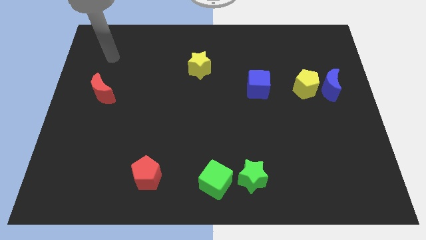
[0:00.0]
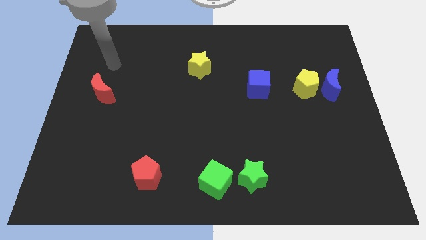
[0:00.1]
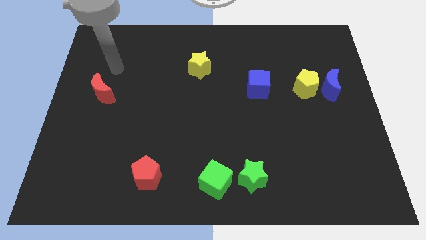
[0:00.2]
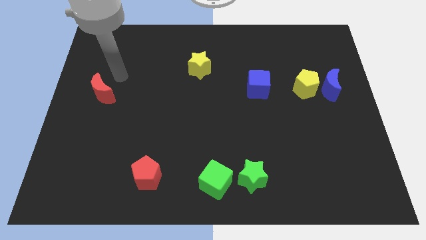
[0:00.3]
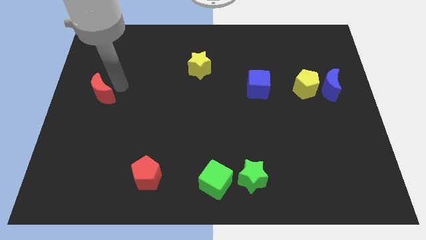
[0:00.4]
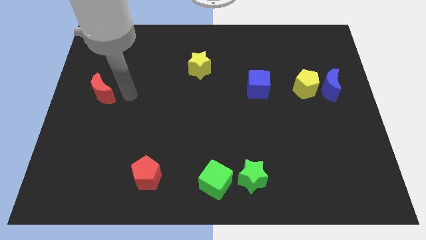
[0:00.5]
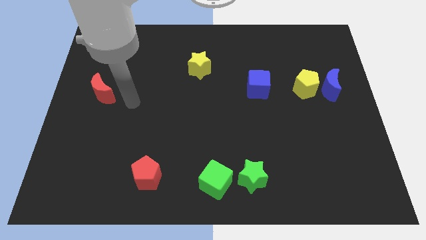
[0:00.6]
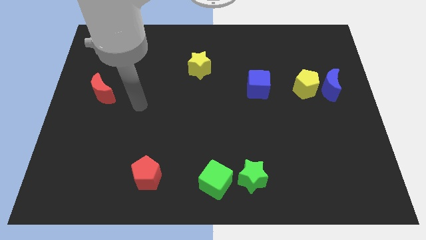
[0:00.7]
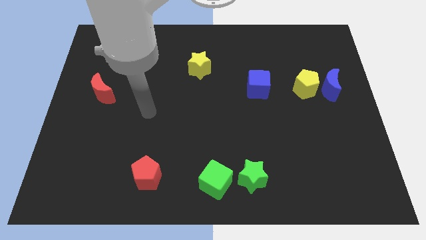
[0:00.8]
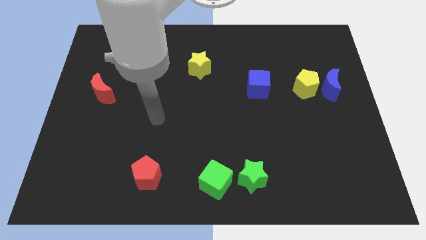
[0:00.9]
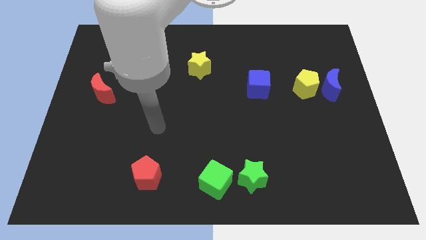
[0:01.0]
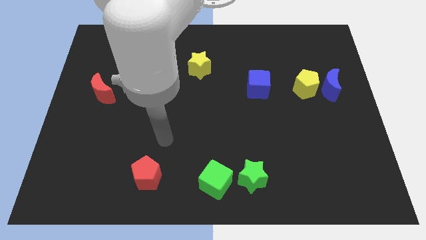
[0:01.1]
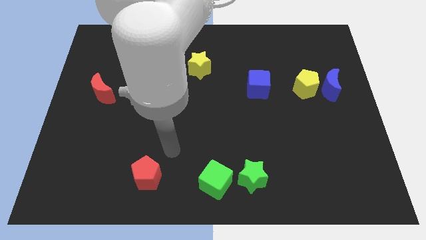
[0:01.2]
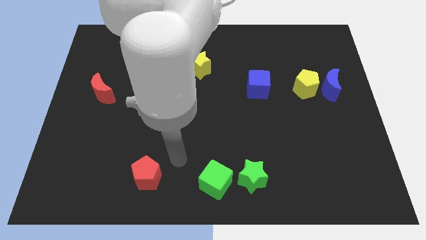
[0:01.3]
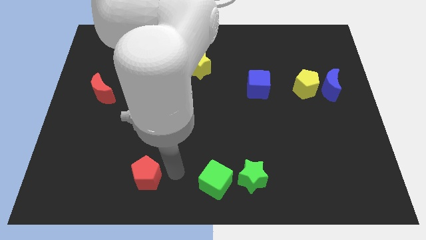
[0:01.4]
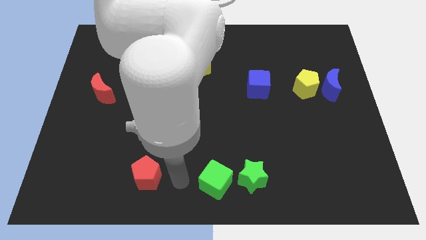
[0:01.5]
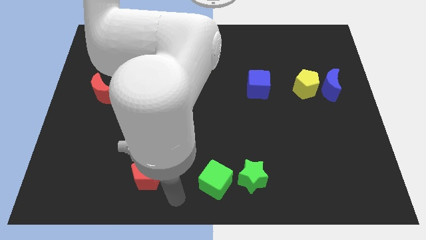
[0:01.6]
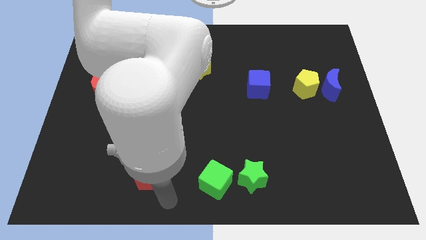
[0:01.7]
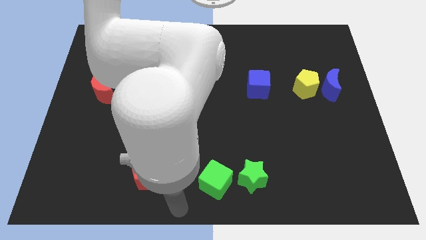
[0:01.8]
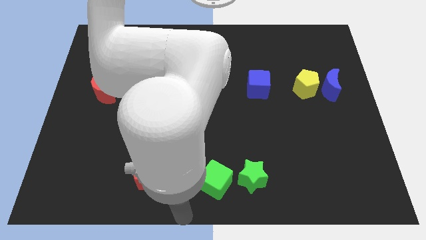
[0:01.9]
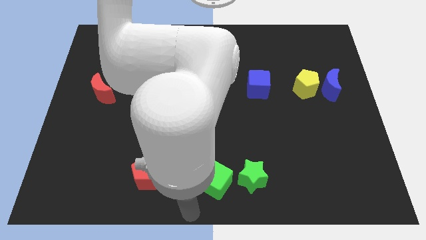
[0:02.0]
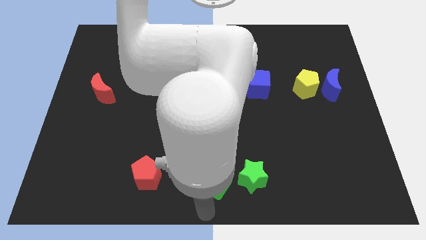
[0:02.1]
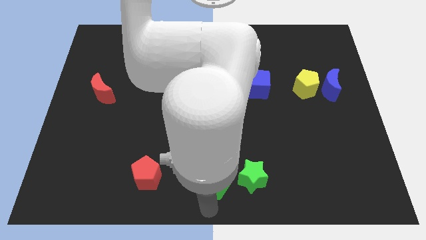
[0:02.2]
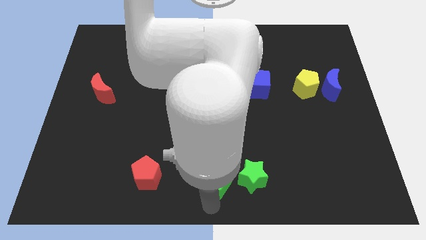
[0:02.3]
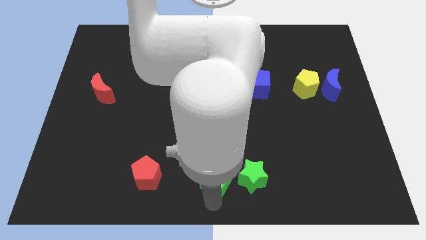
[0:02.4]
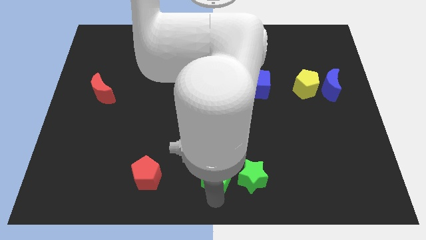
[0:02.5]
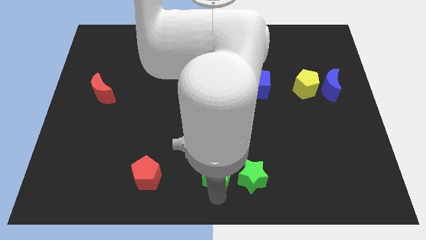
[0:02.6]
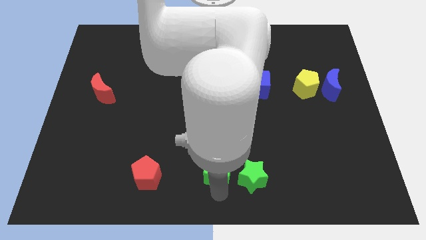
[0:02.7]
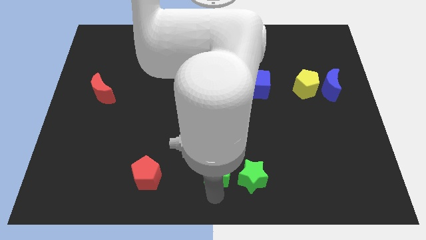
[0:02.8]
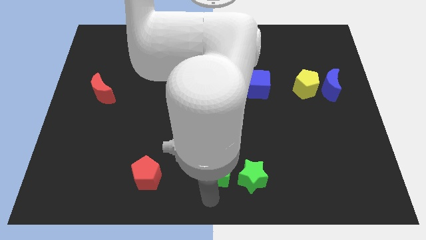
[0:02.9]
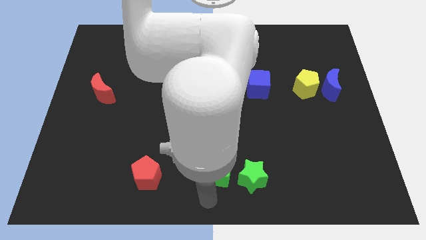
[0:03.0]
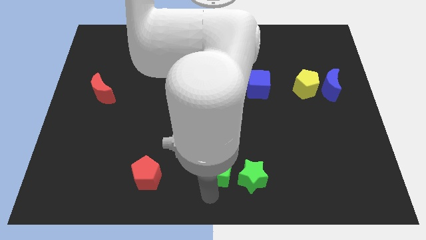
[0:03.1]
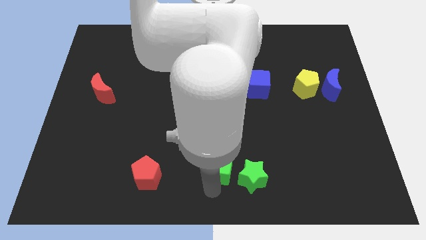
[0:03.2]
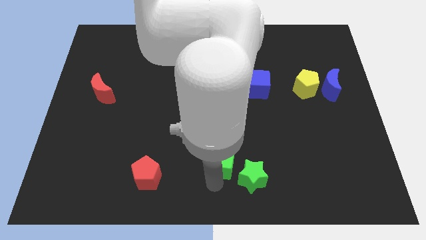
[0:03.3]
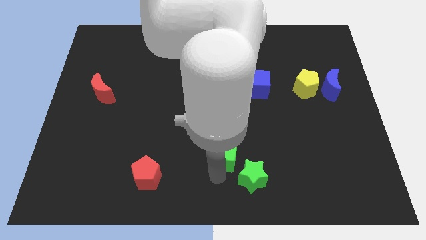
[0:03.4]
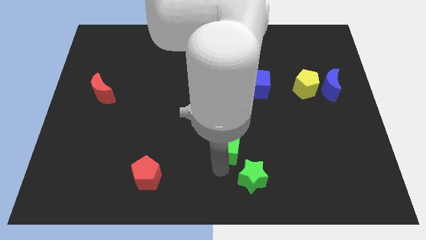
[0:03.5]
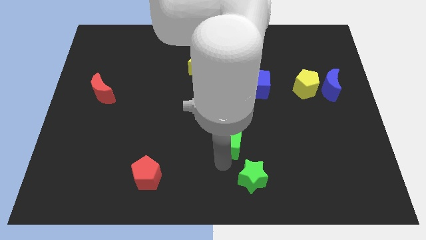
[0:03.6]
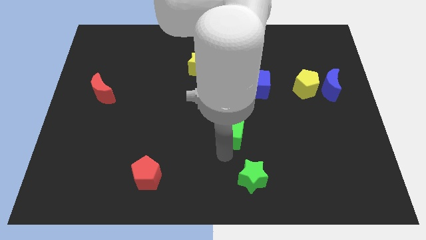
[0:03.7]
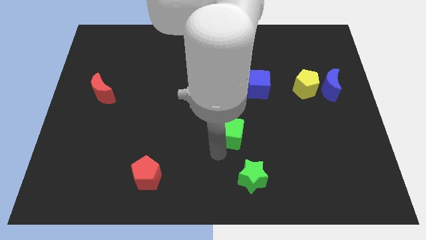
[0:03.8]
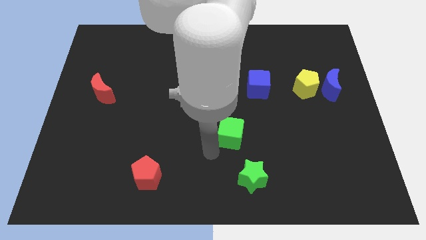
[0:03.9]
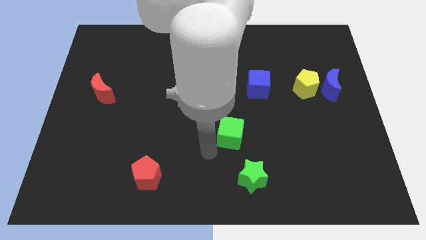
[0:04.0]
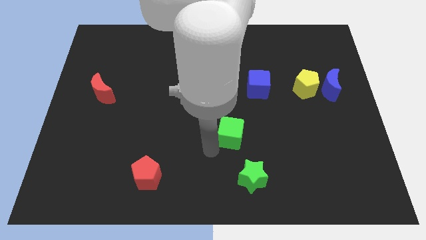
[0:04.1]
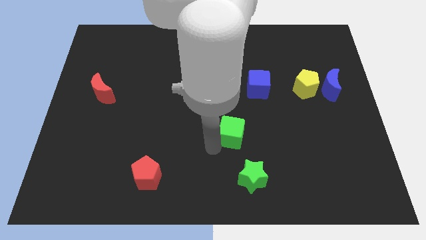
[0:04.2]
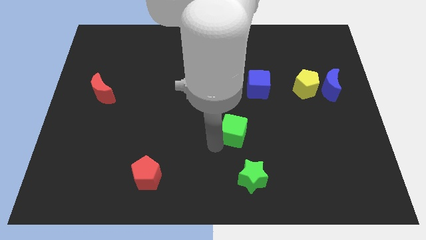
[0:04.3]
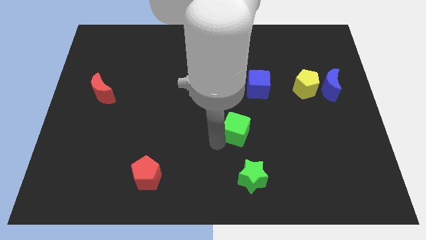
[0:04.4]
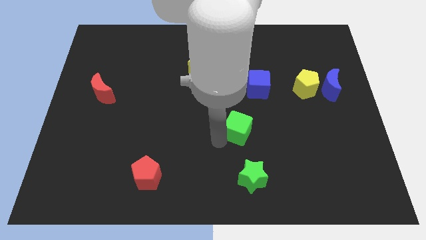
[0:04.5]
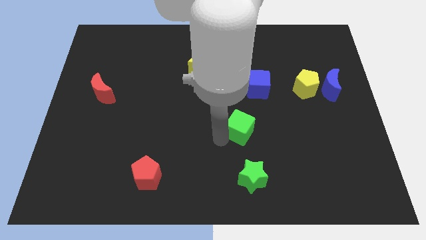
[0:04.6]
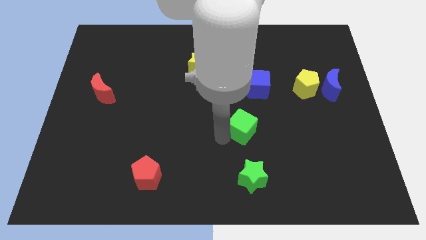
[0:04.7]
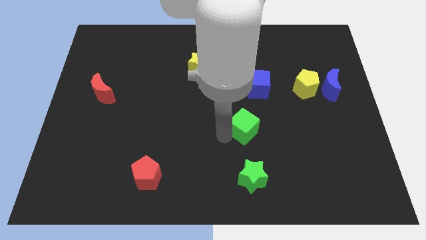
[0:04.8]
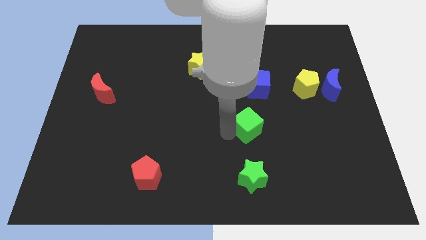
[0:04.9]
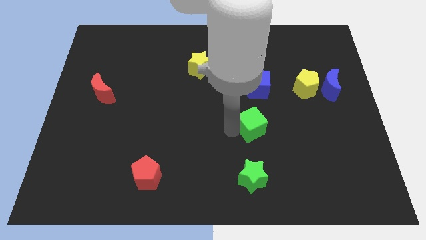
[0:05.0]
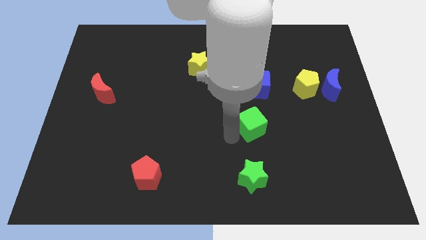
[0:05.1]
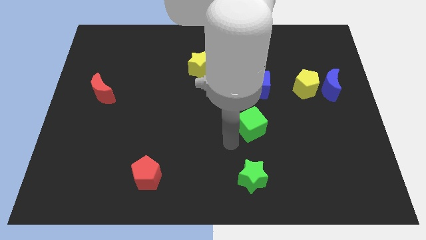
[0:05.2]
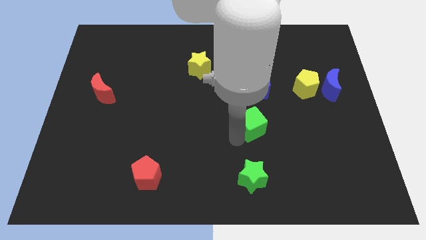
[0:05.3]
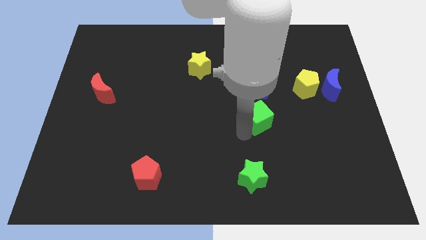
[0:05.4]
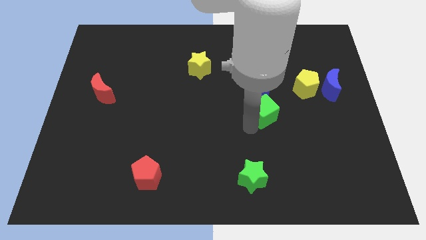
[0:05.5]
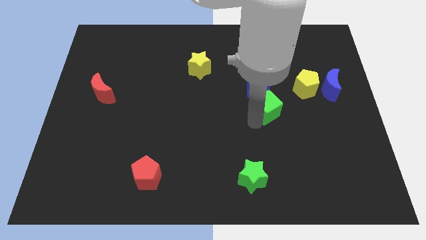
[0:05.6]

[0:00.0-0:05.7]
push the green cube to the bottom right of the blue cube

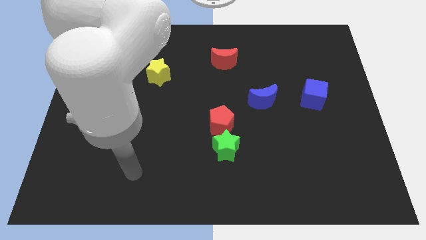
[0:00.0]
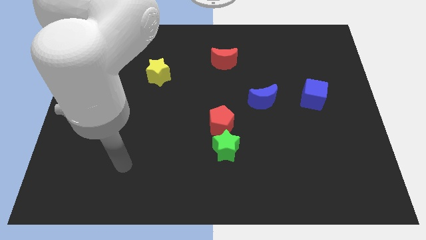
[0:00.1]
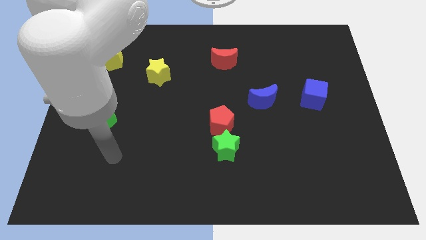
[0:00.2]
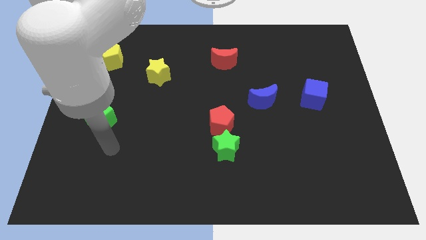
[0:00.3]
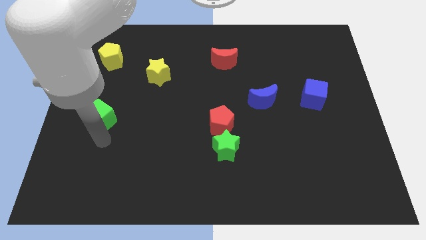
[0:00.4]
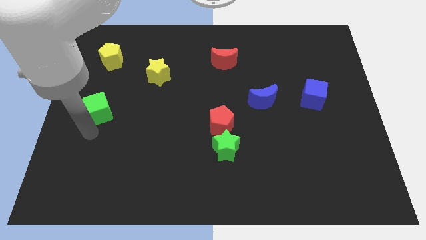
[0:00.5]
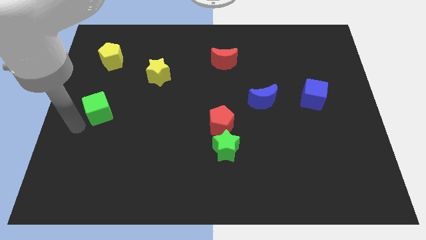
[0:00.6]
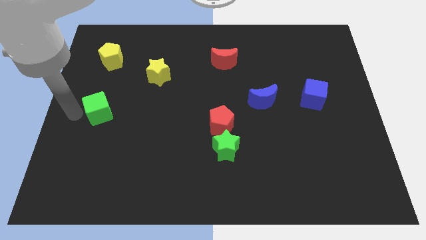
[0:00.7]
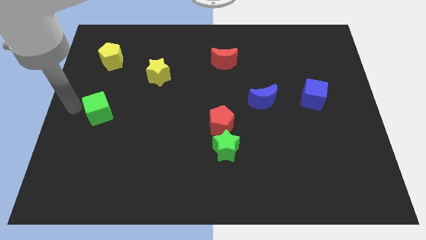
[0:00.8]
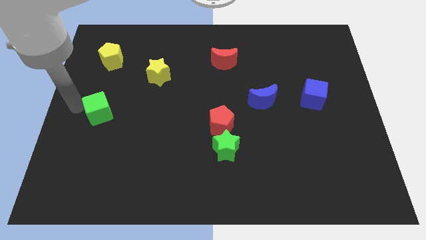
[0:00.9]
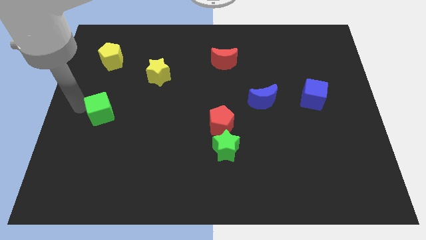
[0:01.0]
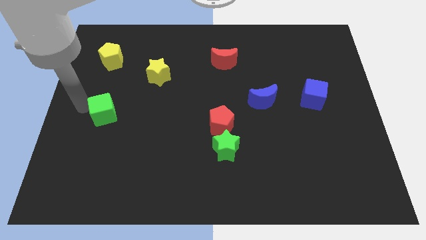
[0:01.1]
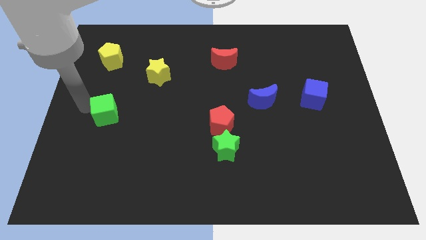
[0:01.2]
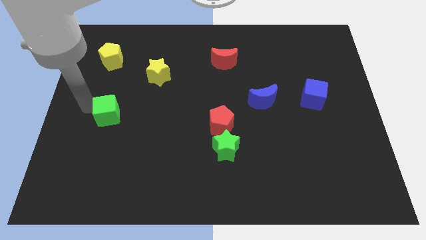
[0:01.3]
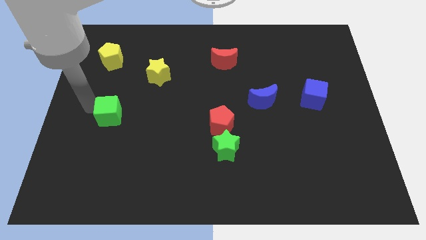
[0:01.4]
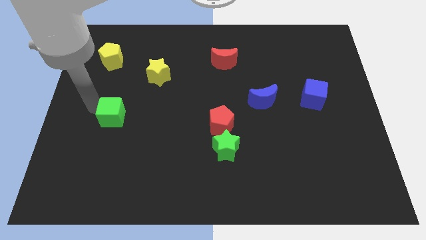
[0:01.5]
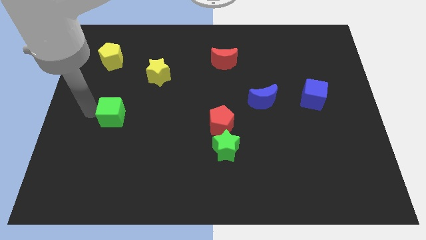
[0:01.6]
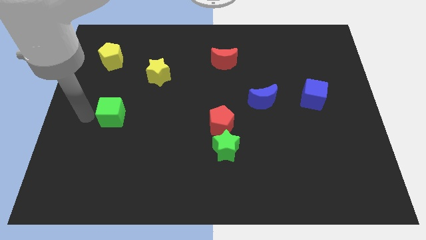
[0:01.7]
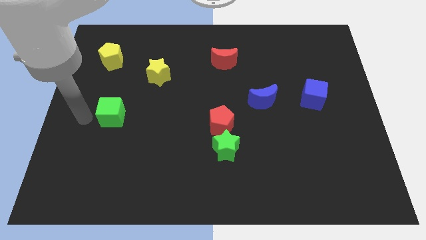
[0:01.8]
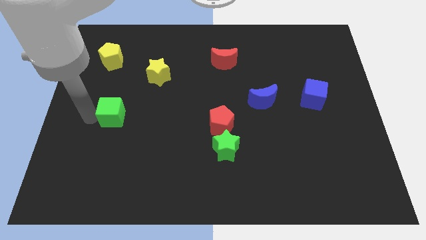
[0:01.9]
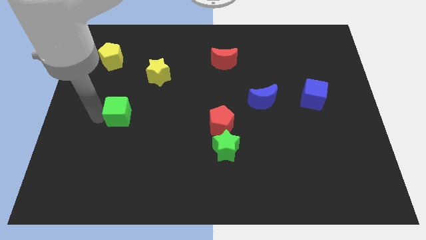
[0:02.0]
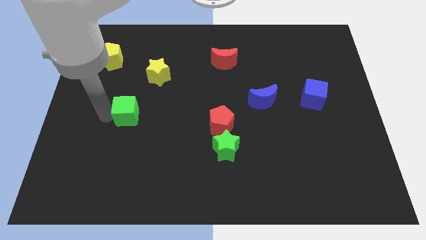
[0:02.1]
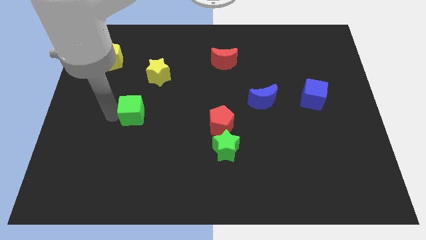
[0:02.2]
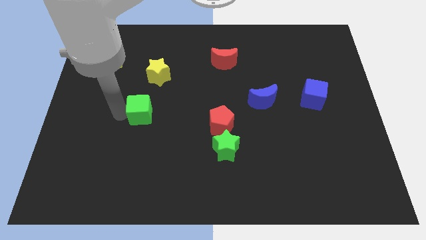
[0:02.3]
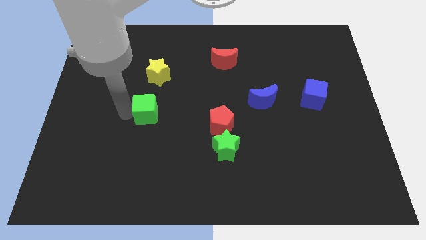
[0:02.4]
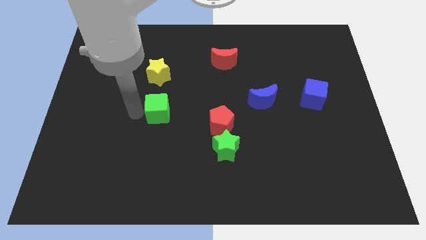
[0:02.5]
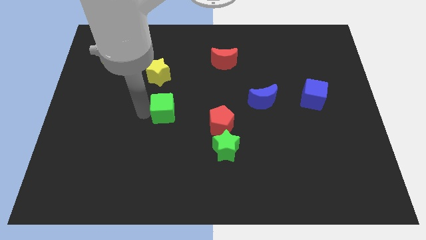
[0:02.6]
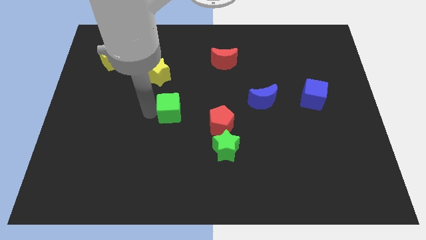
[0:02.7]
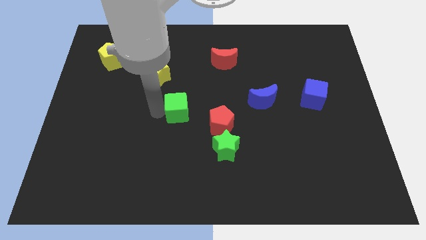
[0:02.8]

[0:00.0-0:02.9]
push the green cube to the top left side of the red pentagon
